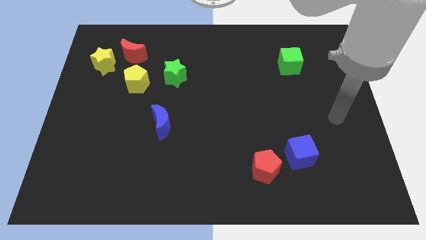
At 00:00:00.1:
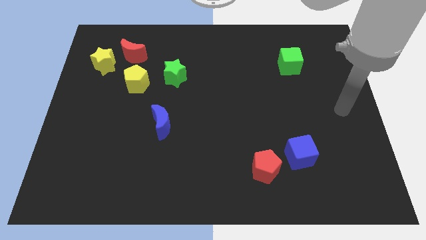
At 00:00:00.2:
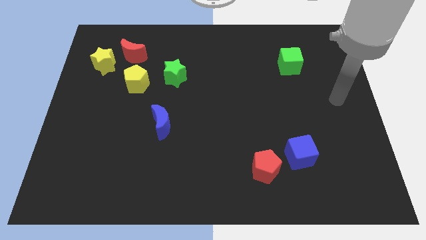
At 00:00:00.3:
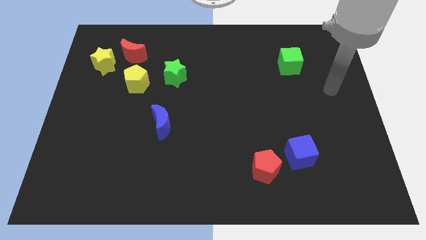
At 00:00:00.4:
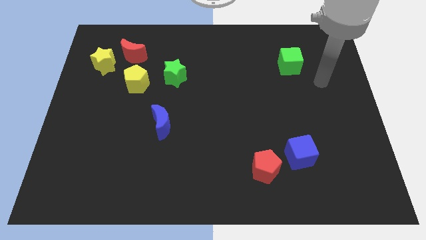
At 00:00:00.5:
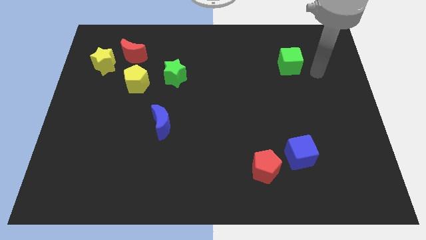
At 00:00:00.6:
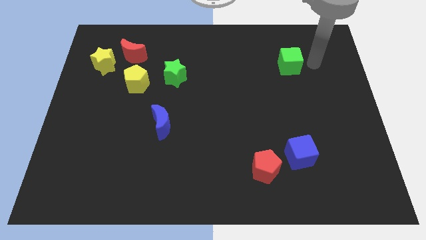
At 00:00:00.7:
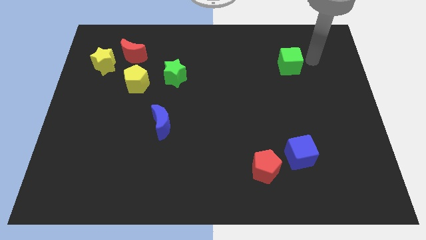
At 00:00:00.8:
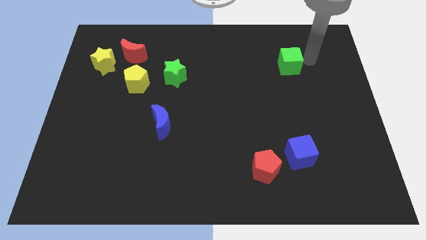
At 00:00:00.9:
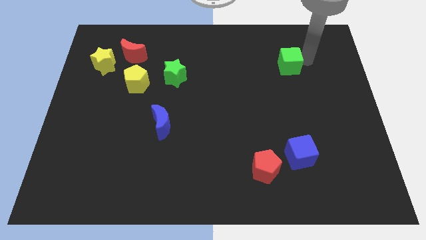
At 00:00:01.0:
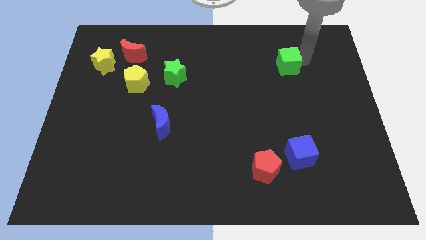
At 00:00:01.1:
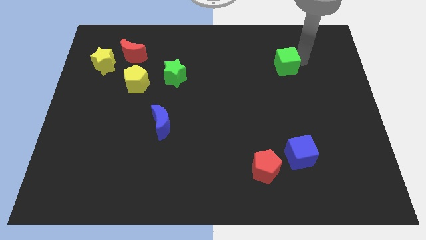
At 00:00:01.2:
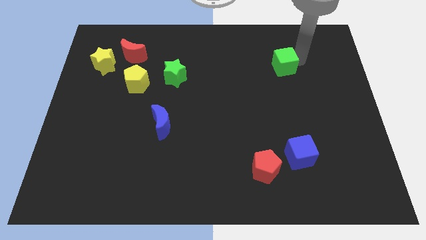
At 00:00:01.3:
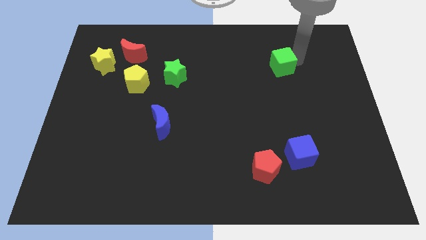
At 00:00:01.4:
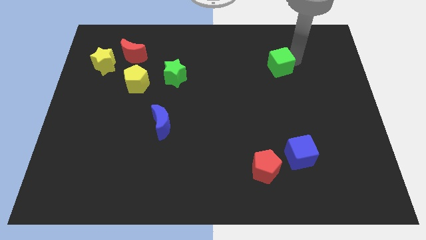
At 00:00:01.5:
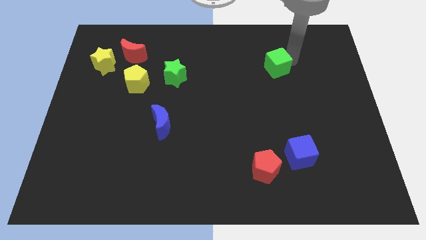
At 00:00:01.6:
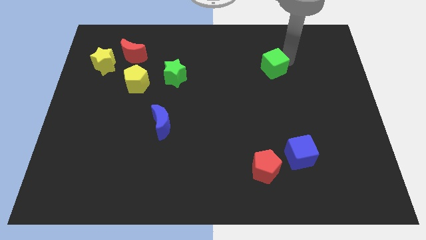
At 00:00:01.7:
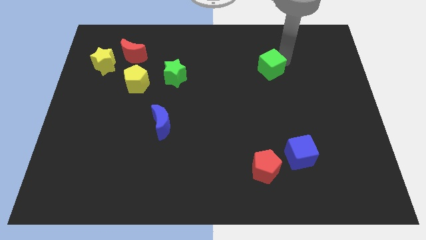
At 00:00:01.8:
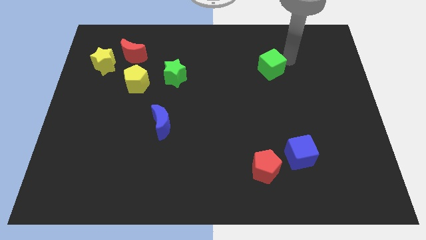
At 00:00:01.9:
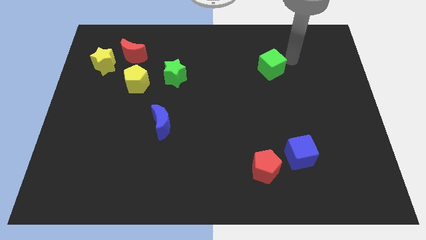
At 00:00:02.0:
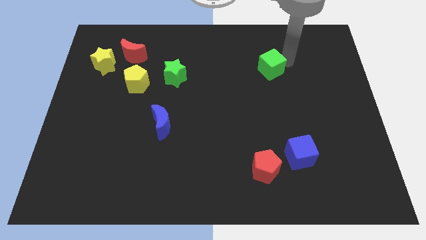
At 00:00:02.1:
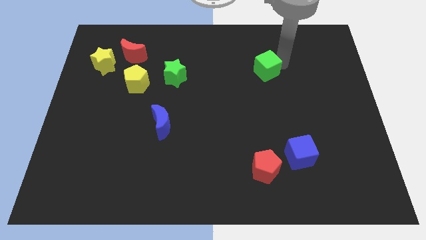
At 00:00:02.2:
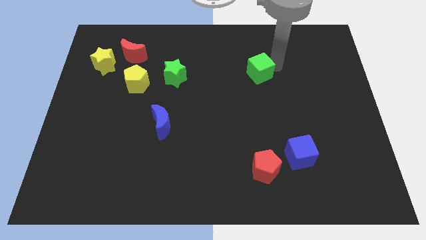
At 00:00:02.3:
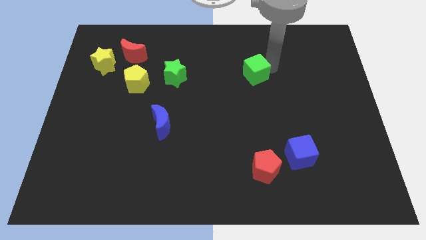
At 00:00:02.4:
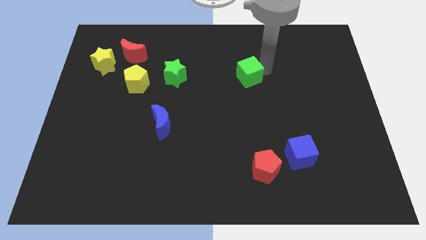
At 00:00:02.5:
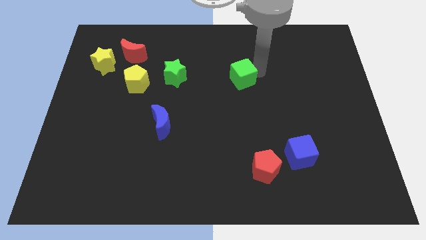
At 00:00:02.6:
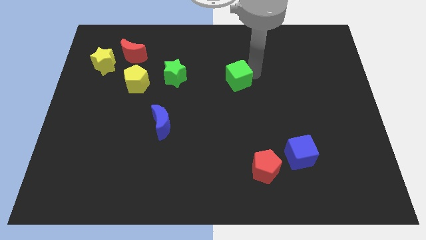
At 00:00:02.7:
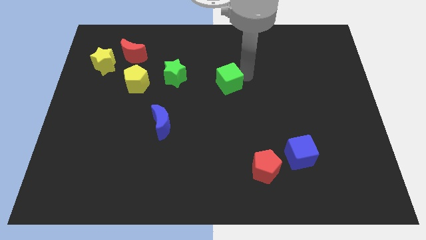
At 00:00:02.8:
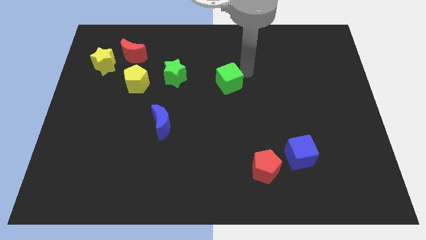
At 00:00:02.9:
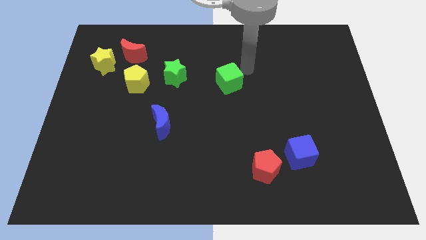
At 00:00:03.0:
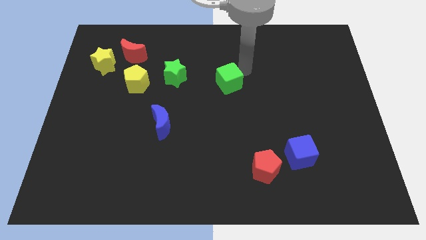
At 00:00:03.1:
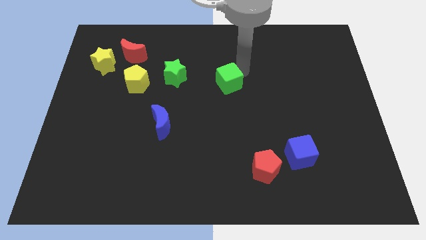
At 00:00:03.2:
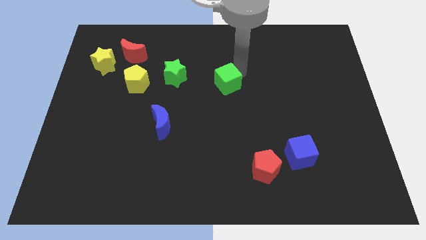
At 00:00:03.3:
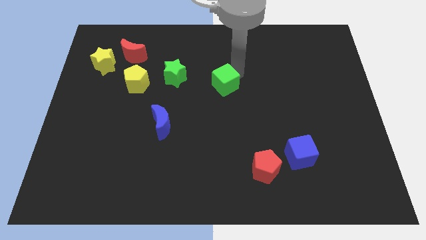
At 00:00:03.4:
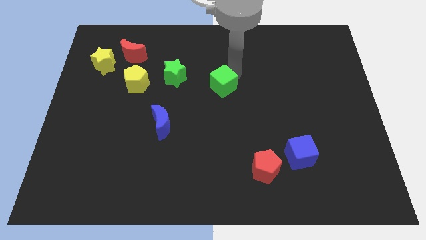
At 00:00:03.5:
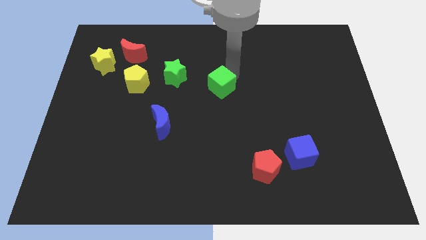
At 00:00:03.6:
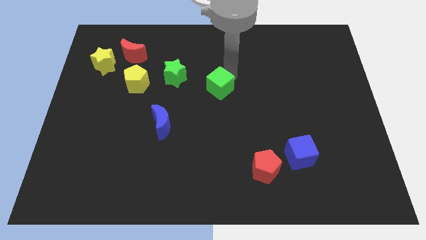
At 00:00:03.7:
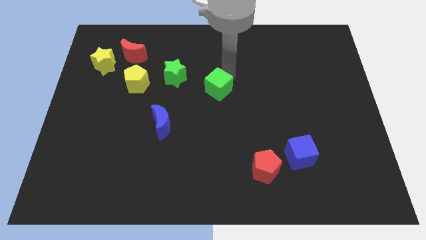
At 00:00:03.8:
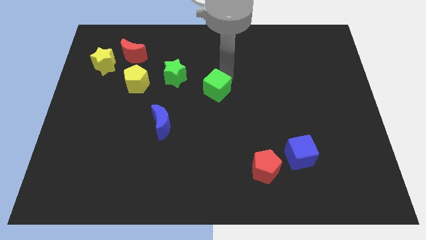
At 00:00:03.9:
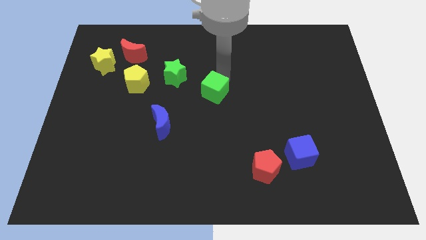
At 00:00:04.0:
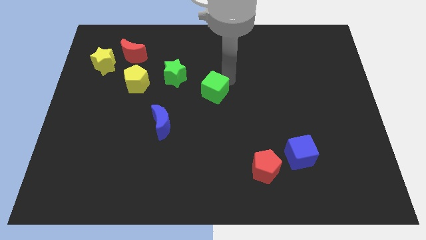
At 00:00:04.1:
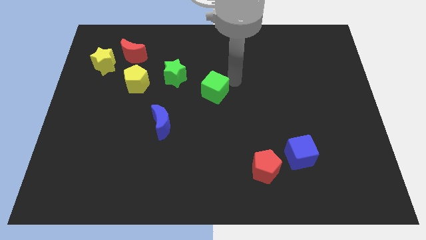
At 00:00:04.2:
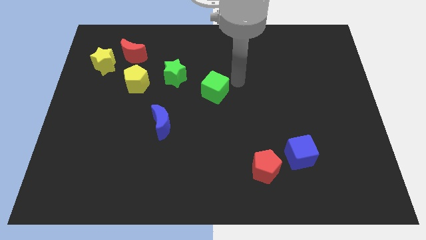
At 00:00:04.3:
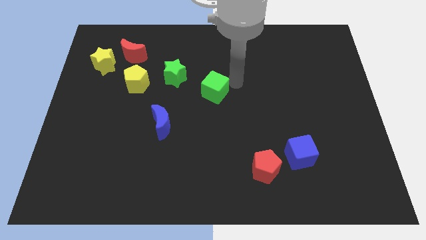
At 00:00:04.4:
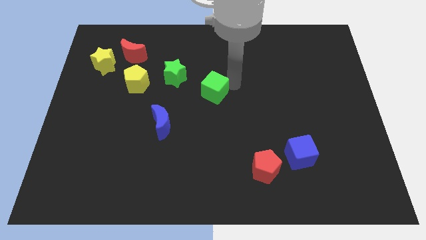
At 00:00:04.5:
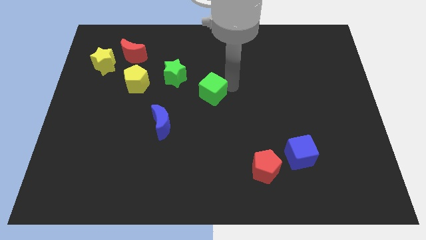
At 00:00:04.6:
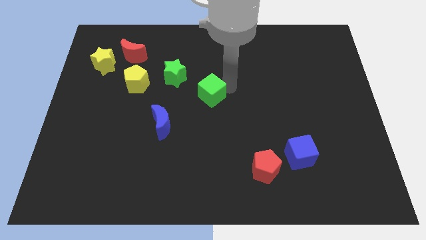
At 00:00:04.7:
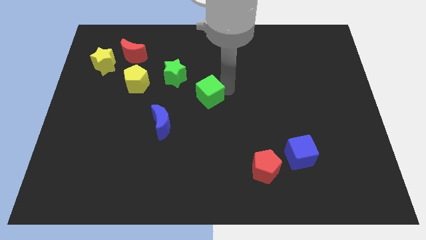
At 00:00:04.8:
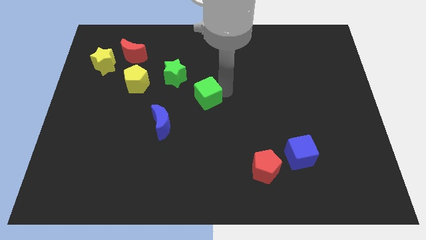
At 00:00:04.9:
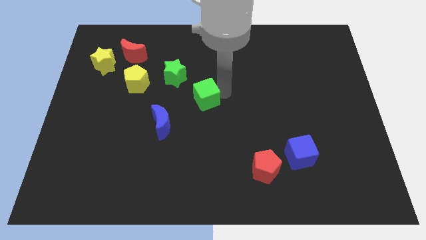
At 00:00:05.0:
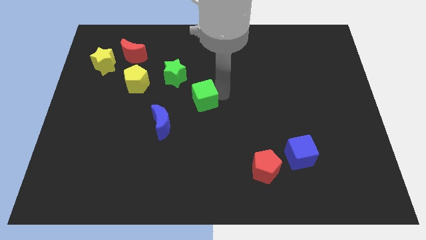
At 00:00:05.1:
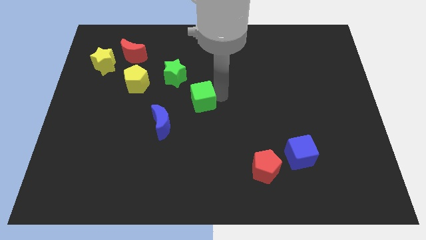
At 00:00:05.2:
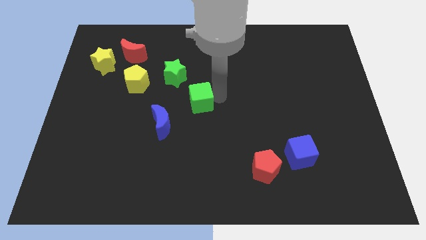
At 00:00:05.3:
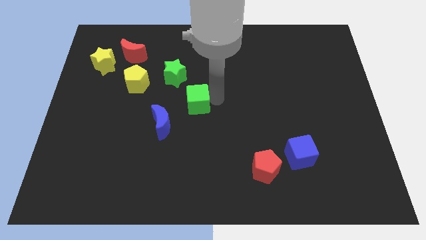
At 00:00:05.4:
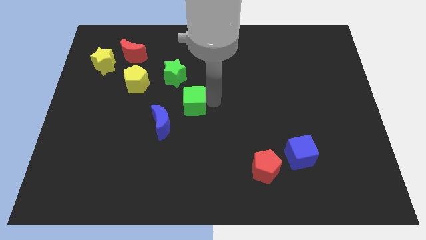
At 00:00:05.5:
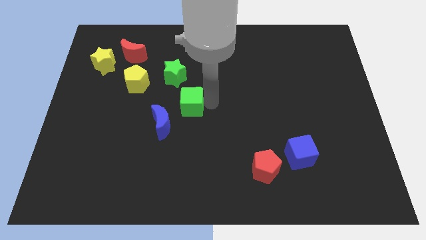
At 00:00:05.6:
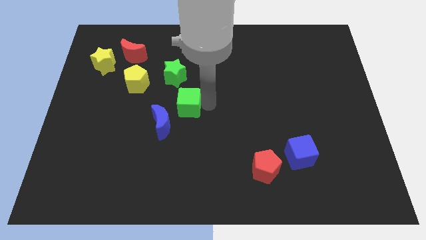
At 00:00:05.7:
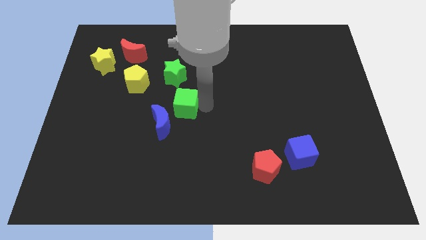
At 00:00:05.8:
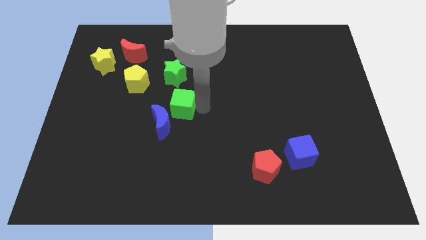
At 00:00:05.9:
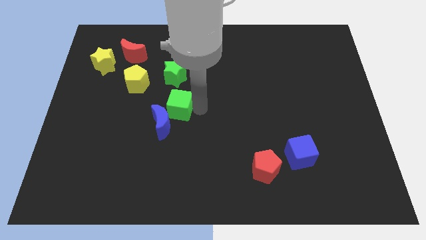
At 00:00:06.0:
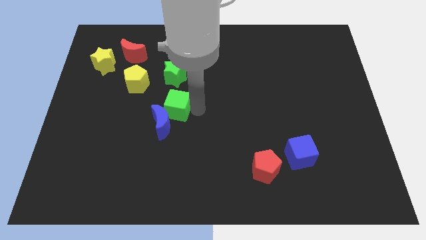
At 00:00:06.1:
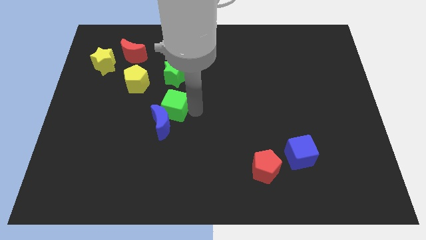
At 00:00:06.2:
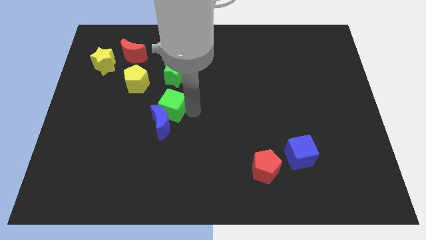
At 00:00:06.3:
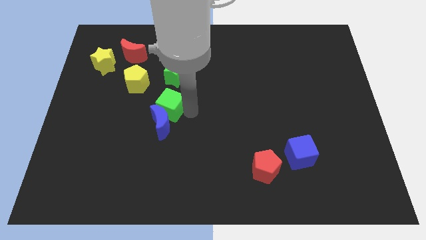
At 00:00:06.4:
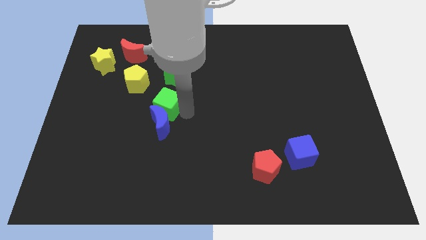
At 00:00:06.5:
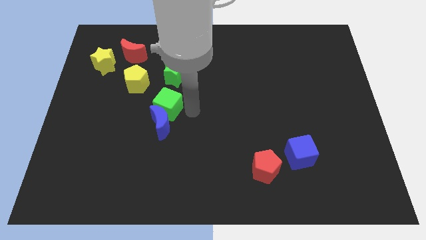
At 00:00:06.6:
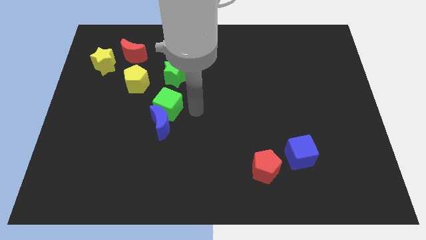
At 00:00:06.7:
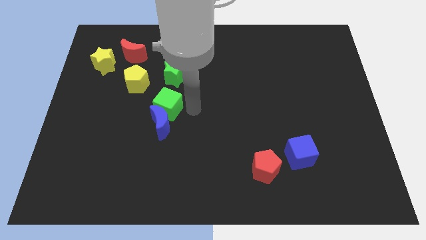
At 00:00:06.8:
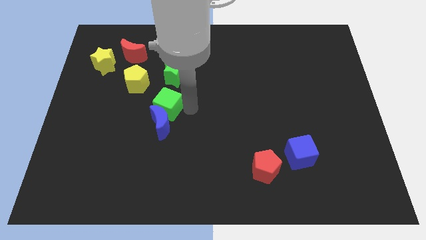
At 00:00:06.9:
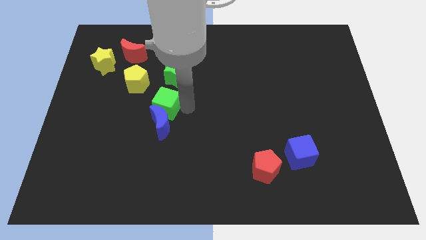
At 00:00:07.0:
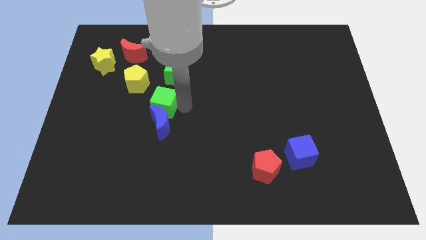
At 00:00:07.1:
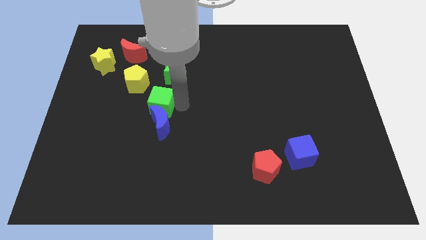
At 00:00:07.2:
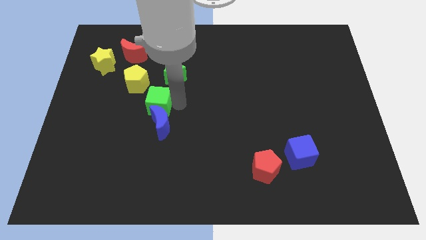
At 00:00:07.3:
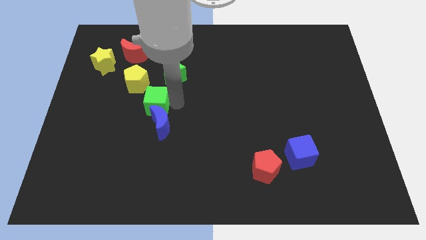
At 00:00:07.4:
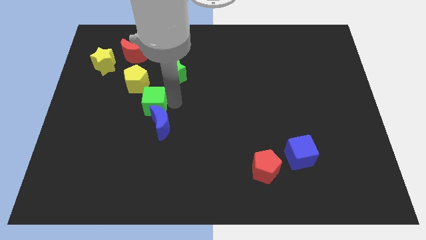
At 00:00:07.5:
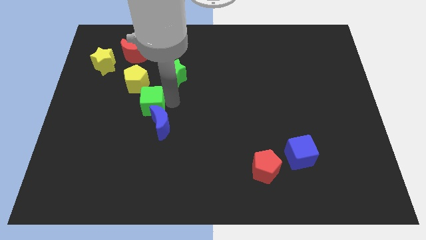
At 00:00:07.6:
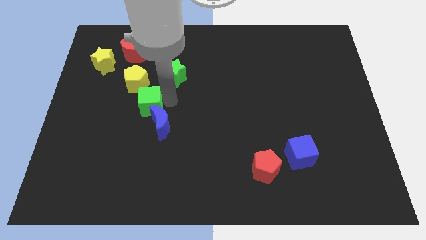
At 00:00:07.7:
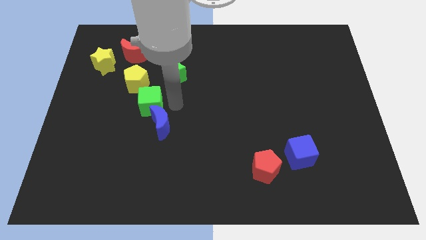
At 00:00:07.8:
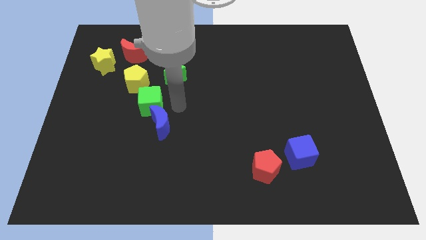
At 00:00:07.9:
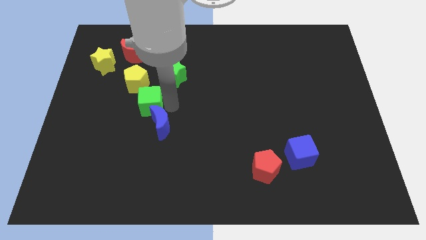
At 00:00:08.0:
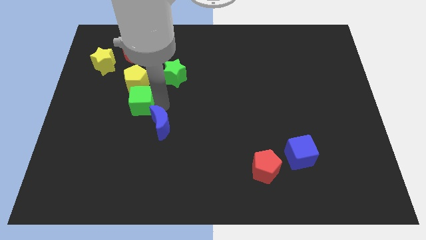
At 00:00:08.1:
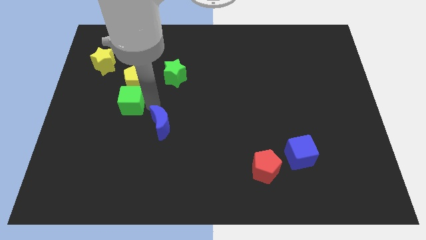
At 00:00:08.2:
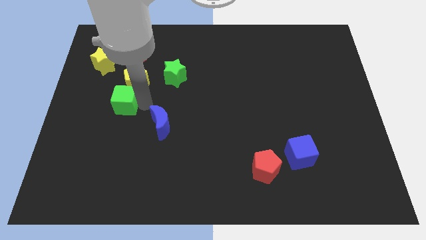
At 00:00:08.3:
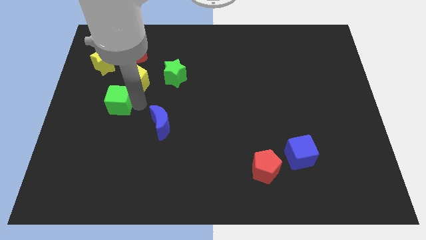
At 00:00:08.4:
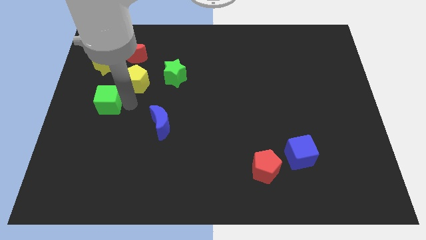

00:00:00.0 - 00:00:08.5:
move the green cube to the left side of the board
